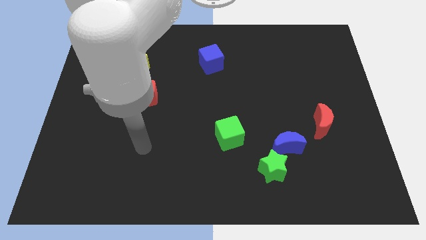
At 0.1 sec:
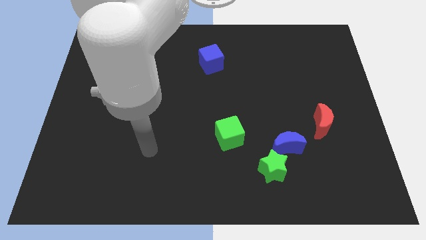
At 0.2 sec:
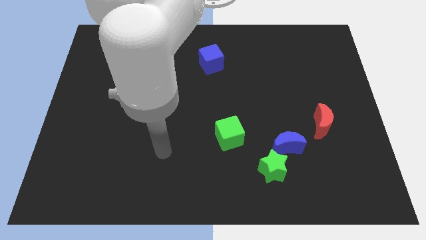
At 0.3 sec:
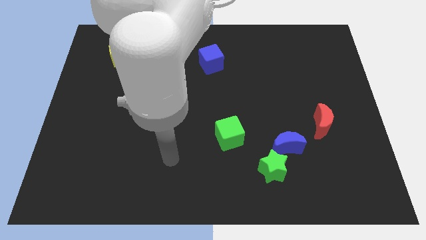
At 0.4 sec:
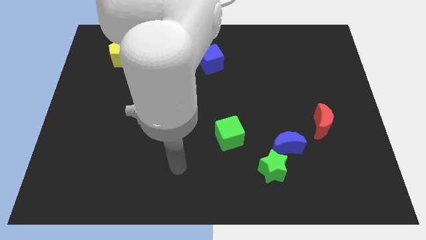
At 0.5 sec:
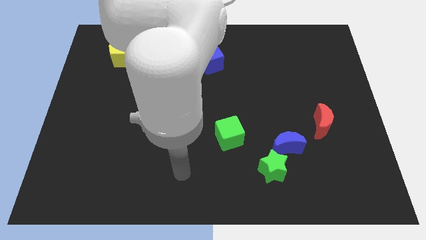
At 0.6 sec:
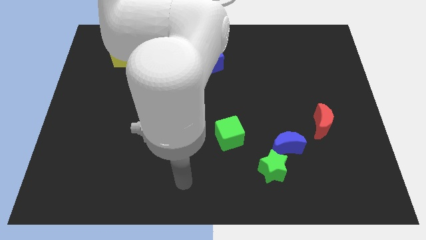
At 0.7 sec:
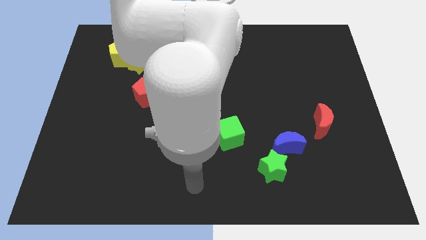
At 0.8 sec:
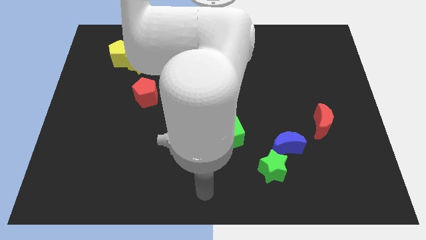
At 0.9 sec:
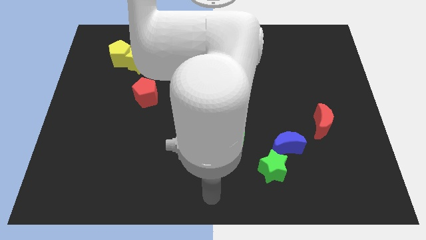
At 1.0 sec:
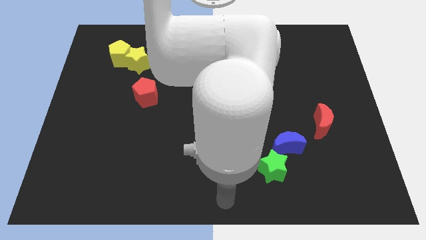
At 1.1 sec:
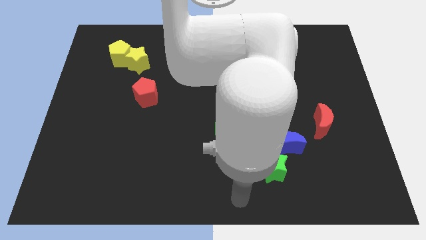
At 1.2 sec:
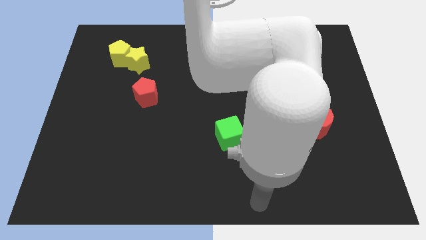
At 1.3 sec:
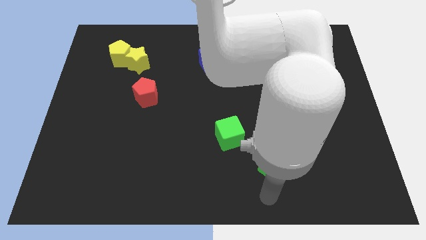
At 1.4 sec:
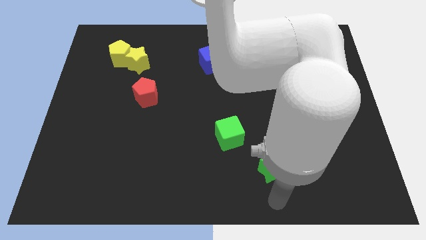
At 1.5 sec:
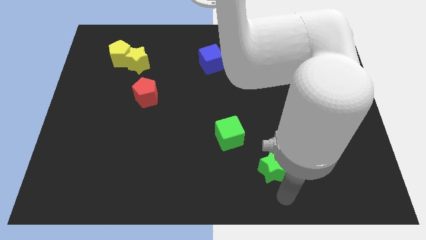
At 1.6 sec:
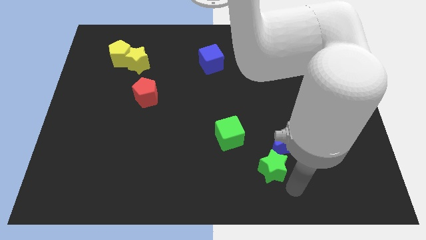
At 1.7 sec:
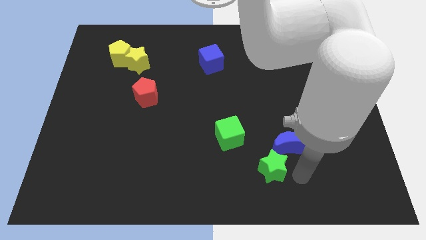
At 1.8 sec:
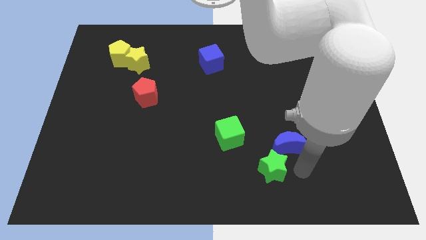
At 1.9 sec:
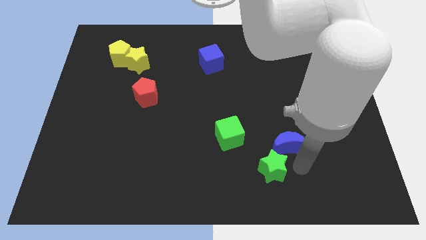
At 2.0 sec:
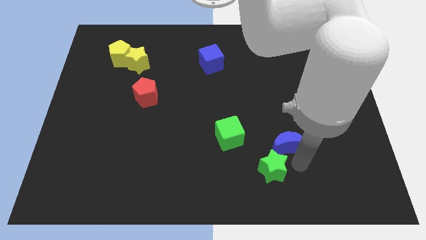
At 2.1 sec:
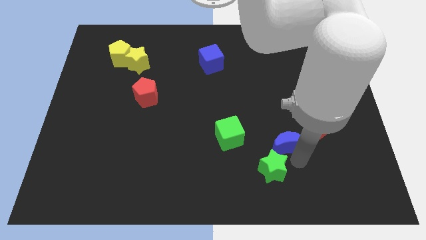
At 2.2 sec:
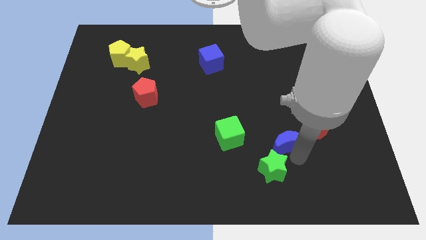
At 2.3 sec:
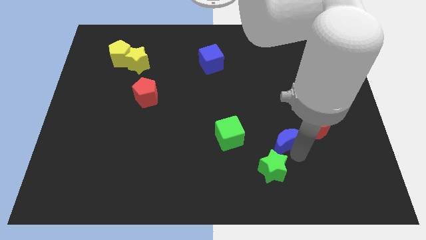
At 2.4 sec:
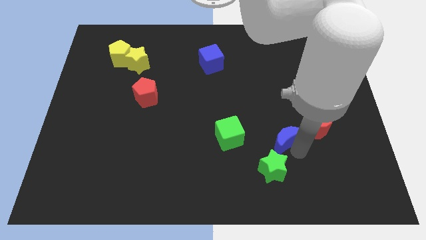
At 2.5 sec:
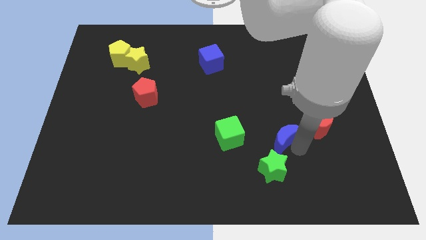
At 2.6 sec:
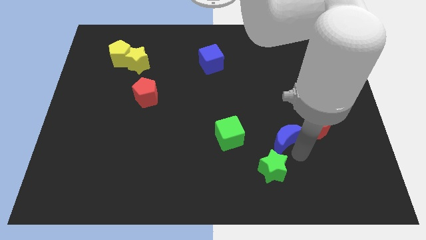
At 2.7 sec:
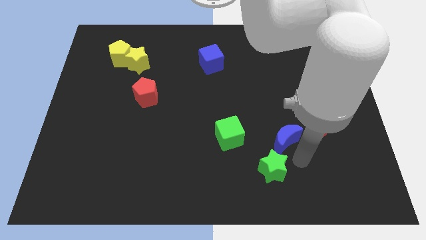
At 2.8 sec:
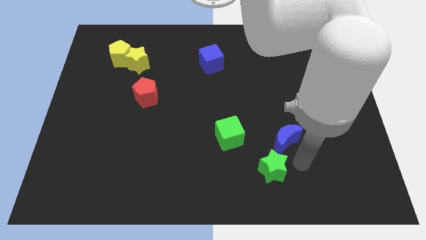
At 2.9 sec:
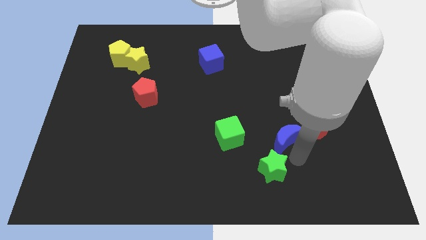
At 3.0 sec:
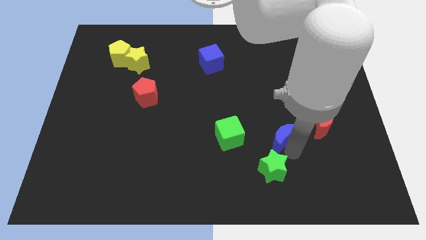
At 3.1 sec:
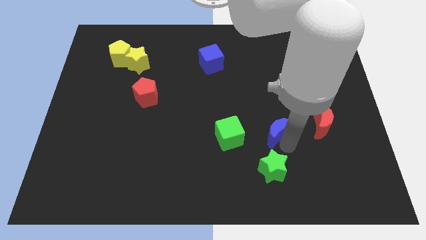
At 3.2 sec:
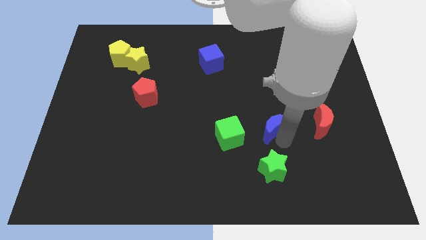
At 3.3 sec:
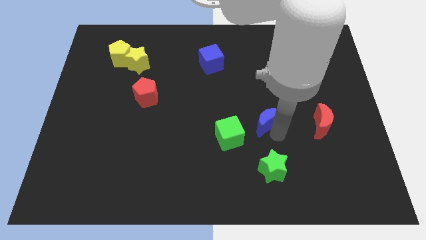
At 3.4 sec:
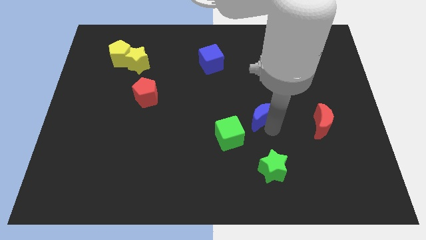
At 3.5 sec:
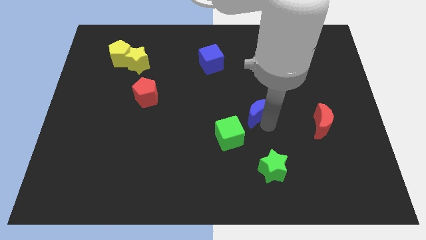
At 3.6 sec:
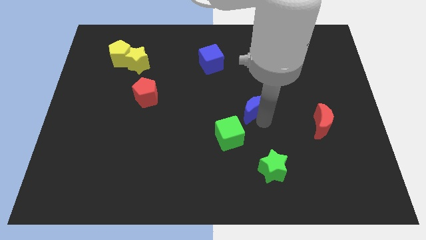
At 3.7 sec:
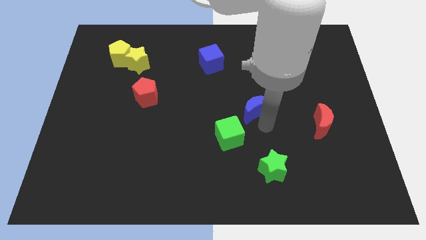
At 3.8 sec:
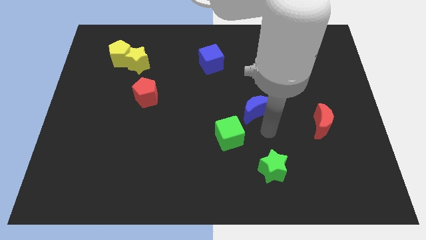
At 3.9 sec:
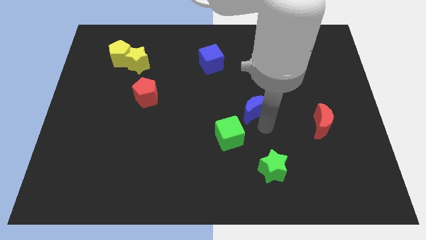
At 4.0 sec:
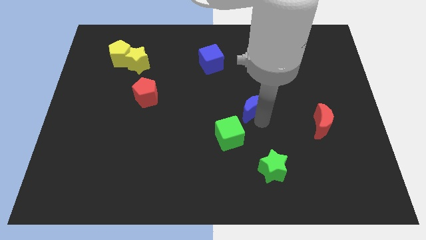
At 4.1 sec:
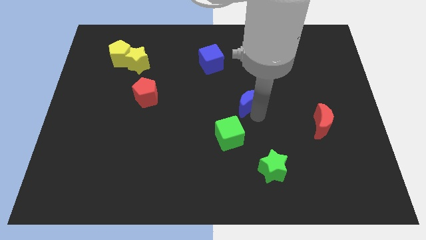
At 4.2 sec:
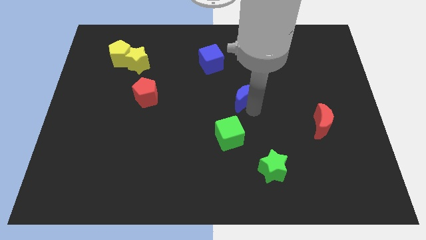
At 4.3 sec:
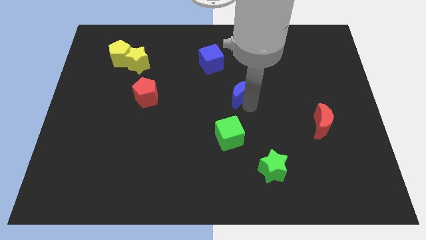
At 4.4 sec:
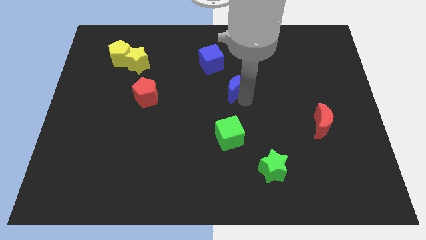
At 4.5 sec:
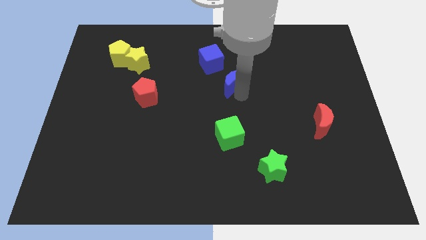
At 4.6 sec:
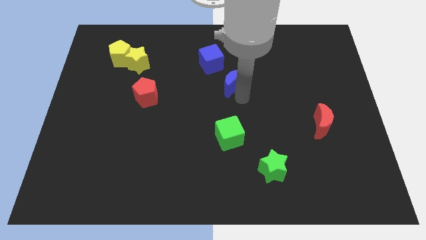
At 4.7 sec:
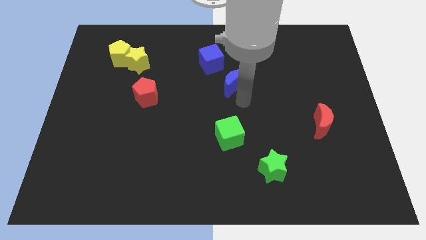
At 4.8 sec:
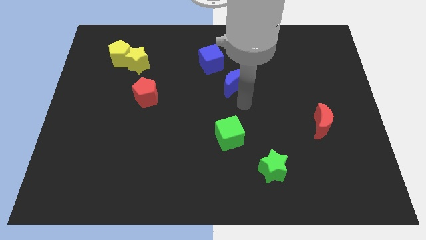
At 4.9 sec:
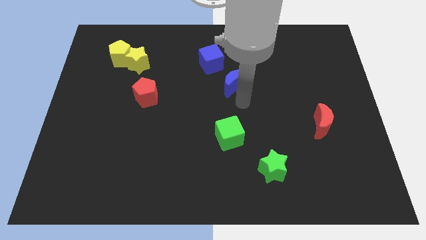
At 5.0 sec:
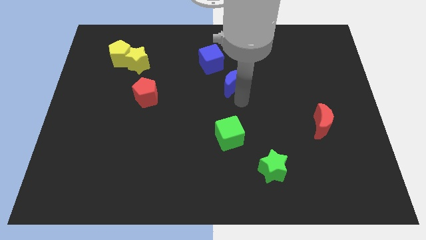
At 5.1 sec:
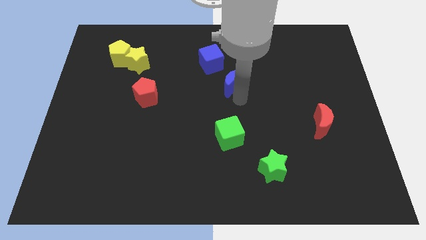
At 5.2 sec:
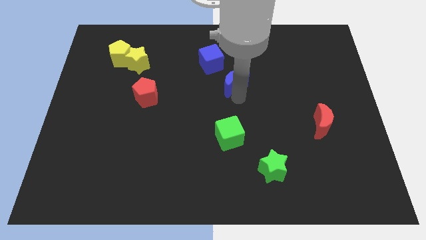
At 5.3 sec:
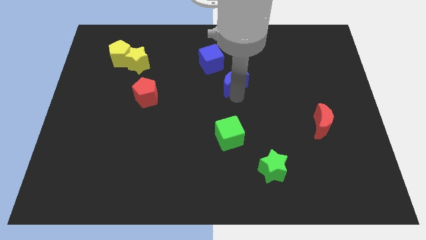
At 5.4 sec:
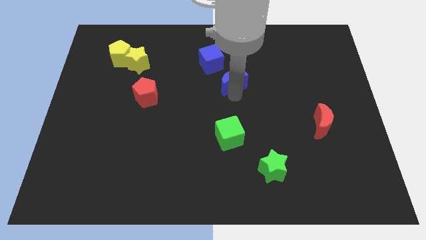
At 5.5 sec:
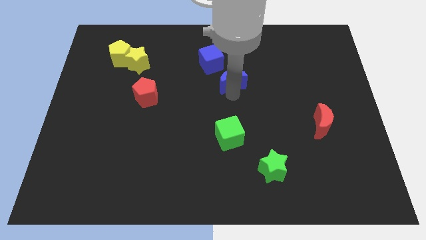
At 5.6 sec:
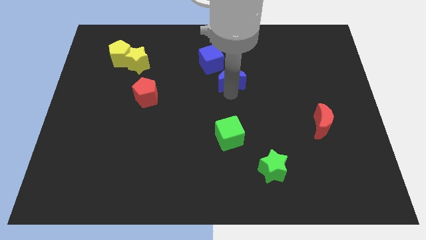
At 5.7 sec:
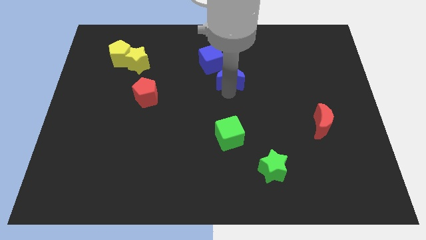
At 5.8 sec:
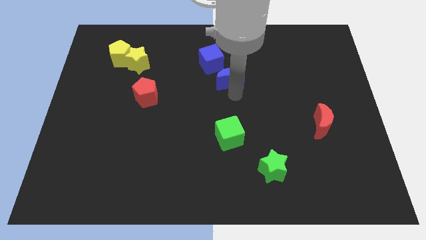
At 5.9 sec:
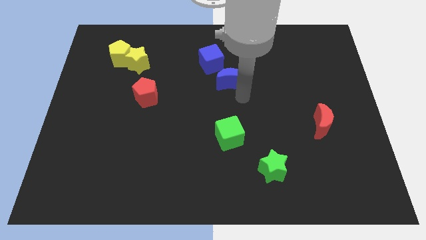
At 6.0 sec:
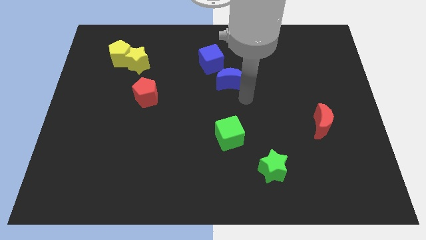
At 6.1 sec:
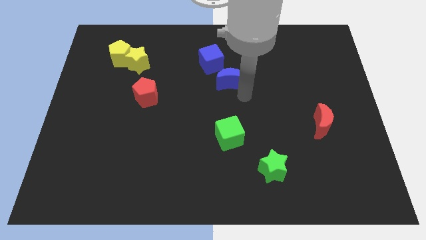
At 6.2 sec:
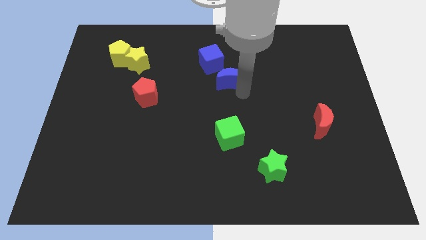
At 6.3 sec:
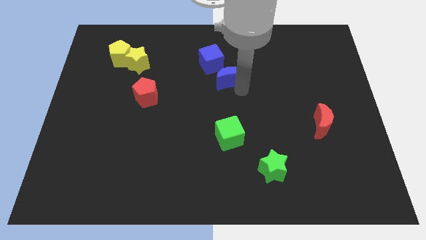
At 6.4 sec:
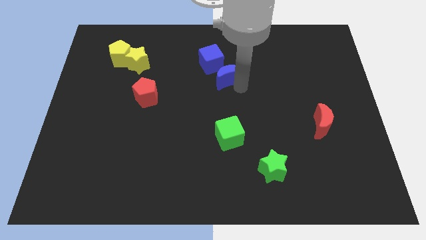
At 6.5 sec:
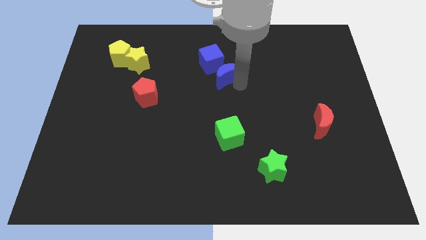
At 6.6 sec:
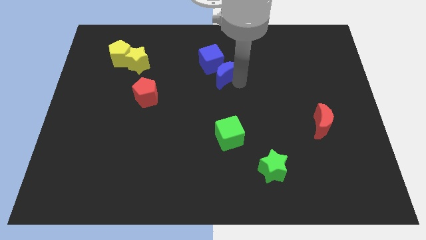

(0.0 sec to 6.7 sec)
slide the blue moon towards the blue cube
